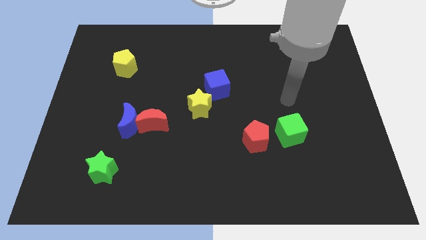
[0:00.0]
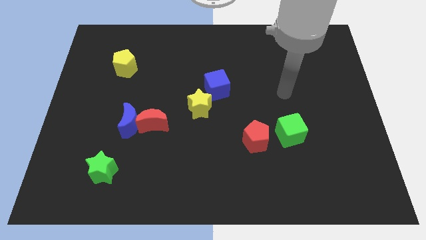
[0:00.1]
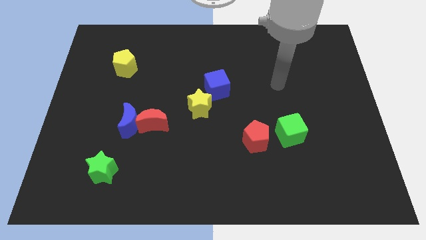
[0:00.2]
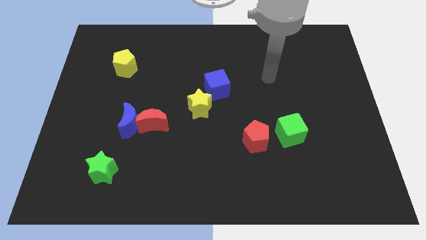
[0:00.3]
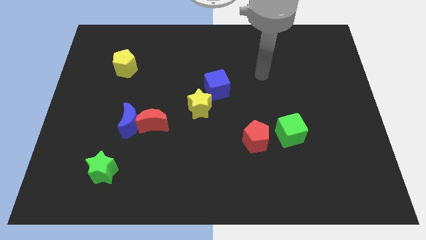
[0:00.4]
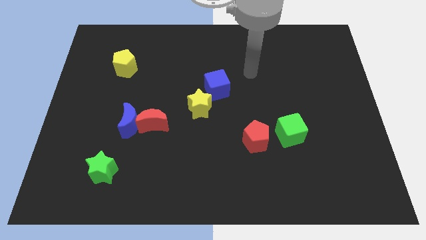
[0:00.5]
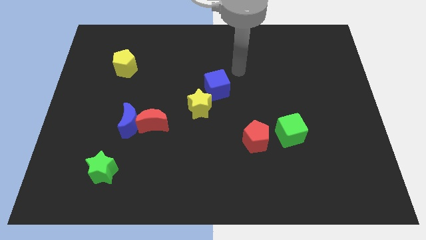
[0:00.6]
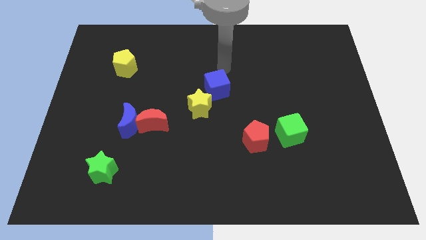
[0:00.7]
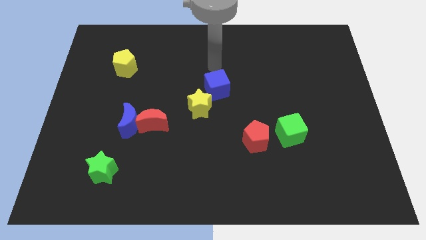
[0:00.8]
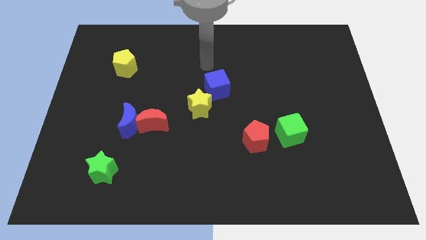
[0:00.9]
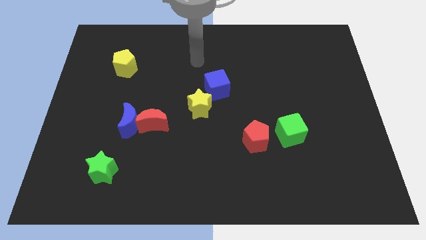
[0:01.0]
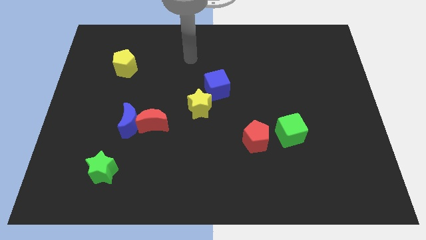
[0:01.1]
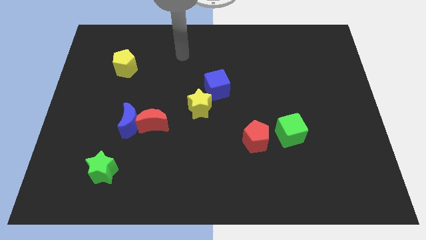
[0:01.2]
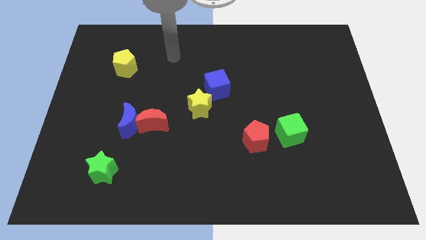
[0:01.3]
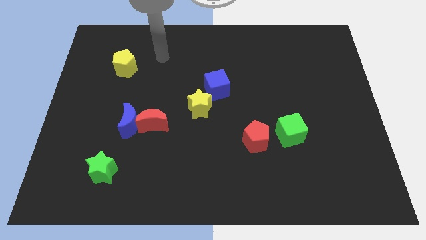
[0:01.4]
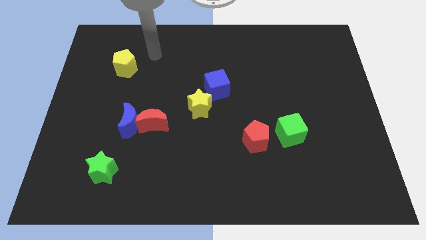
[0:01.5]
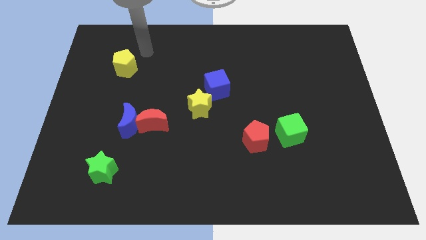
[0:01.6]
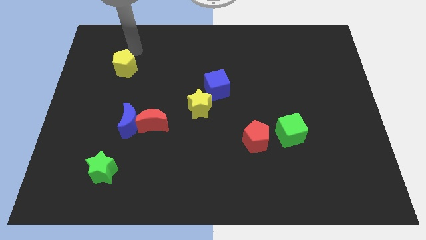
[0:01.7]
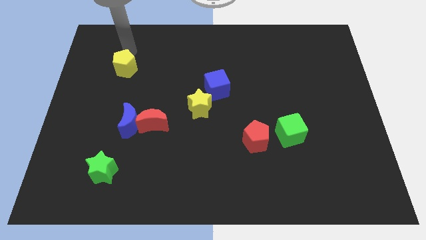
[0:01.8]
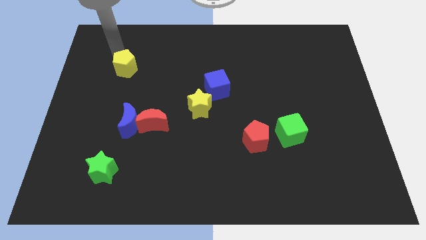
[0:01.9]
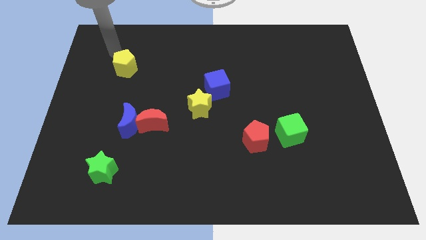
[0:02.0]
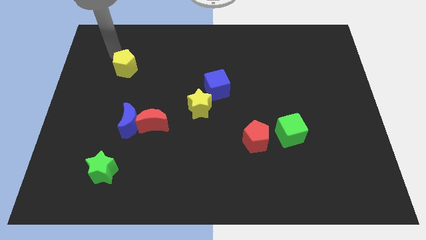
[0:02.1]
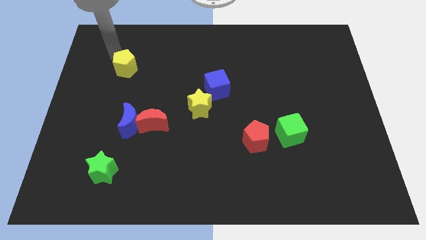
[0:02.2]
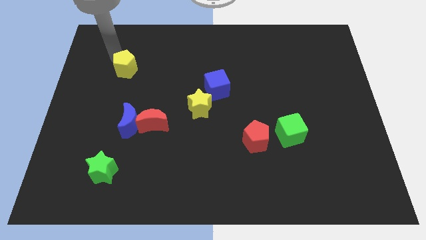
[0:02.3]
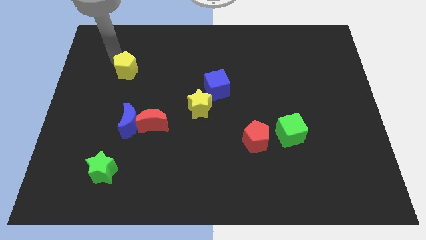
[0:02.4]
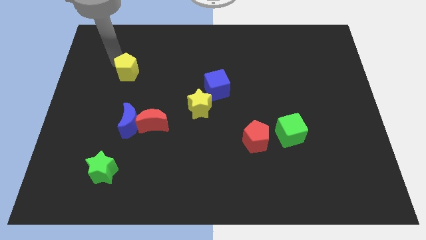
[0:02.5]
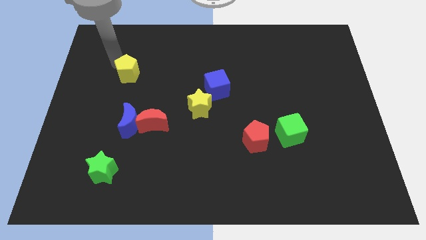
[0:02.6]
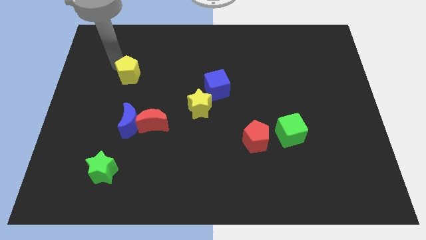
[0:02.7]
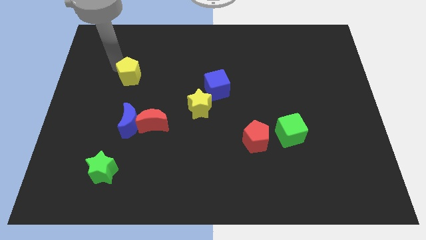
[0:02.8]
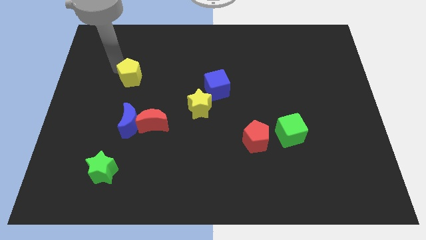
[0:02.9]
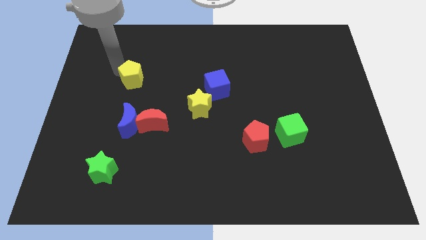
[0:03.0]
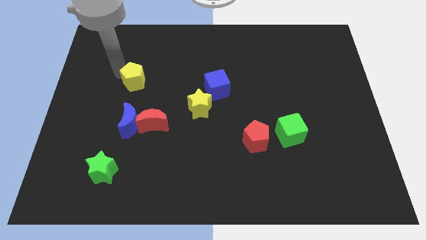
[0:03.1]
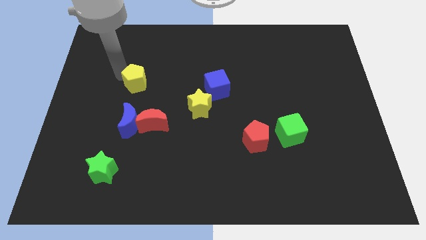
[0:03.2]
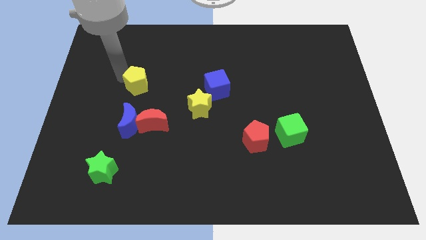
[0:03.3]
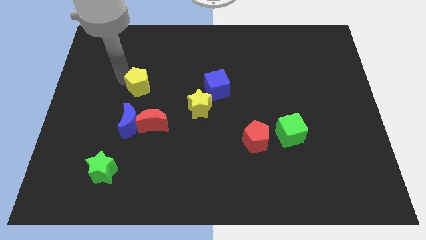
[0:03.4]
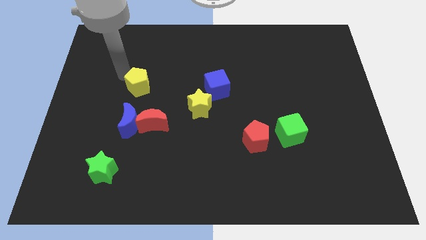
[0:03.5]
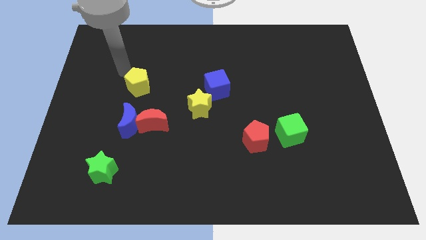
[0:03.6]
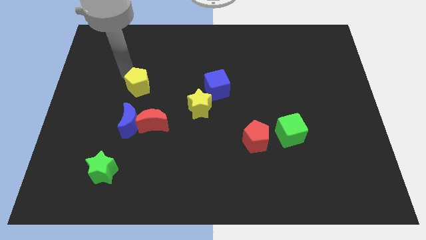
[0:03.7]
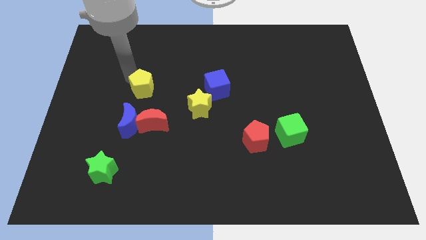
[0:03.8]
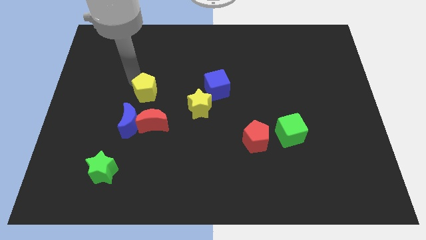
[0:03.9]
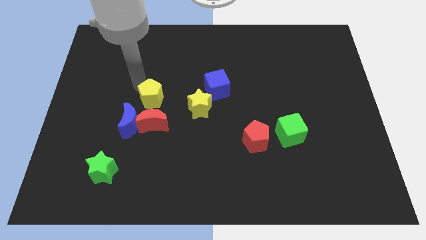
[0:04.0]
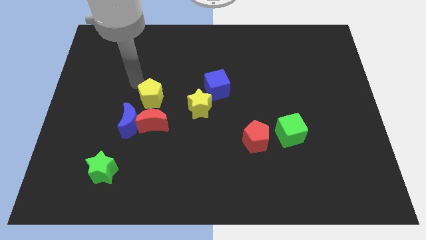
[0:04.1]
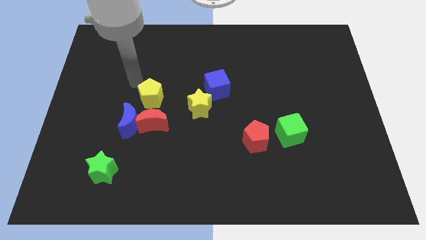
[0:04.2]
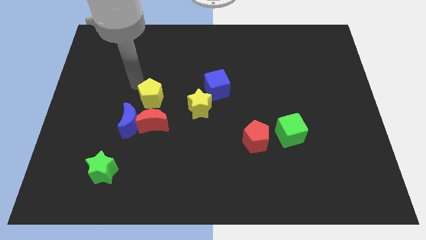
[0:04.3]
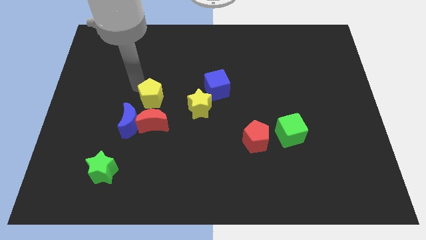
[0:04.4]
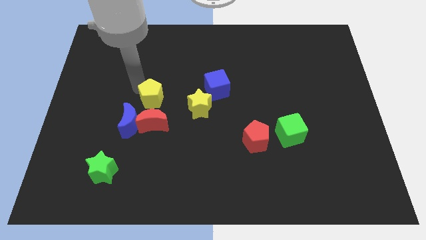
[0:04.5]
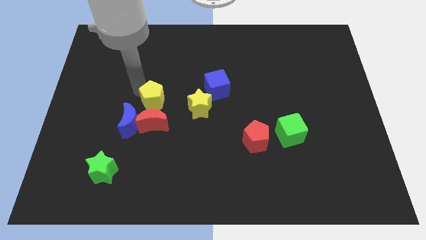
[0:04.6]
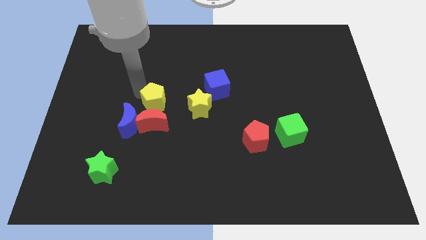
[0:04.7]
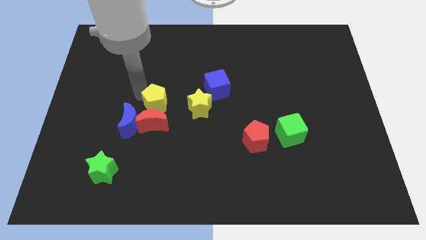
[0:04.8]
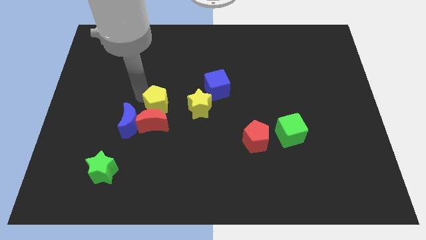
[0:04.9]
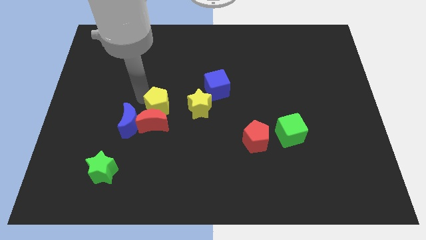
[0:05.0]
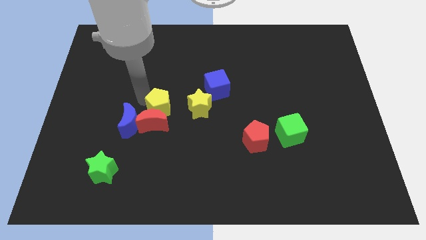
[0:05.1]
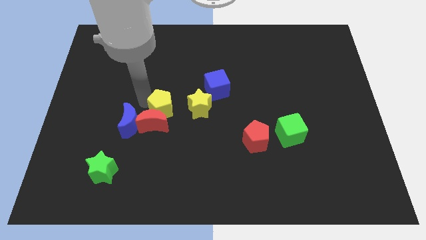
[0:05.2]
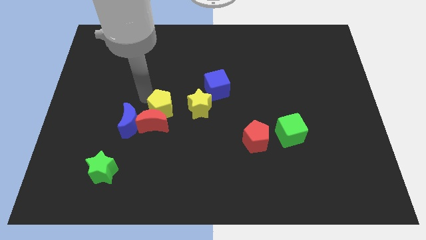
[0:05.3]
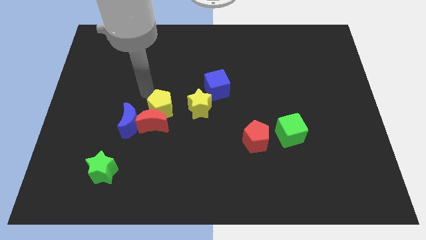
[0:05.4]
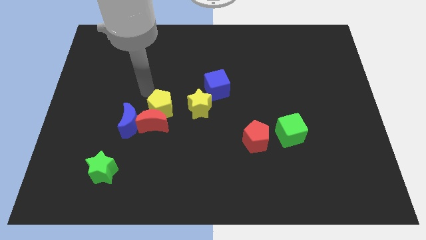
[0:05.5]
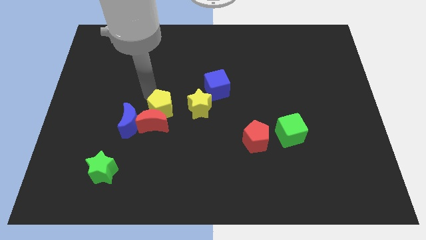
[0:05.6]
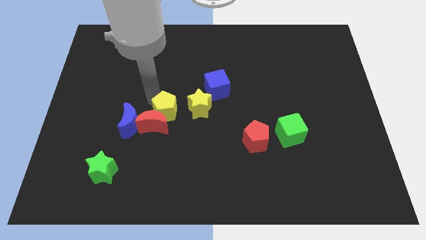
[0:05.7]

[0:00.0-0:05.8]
push the yellow pentagon to the bottom left side of the yellow star

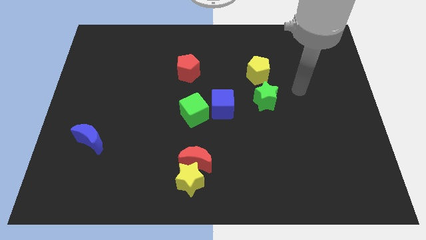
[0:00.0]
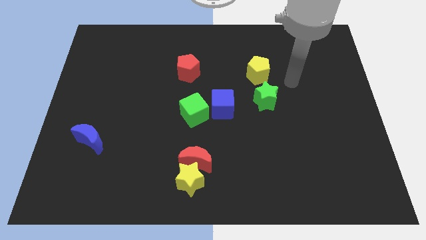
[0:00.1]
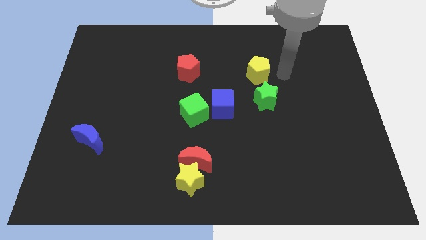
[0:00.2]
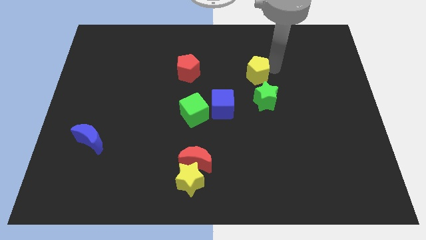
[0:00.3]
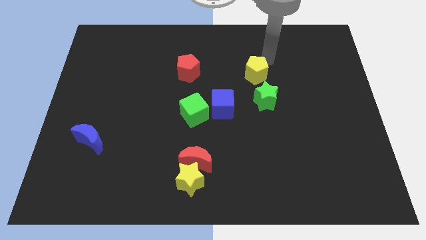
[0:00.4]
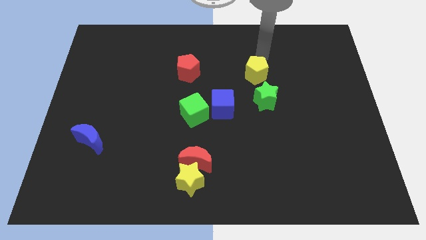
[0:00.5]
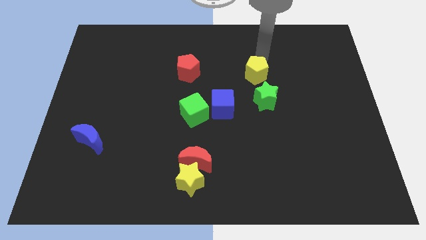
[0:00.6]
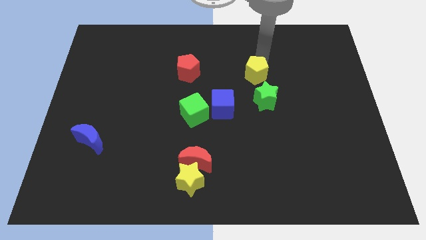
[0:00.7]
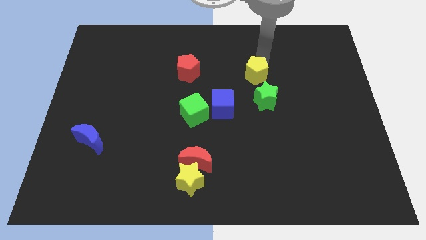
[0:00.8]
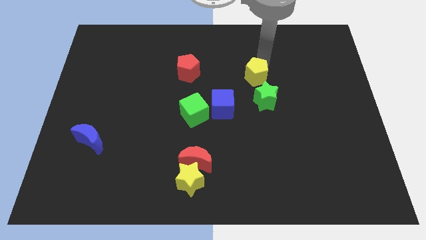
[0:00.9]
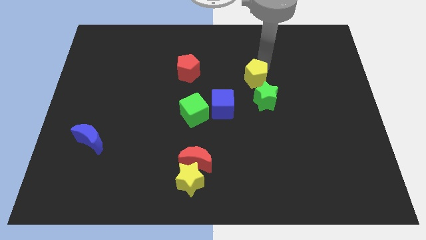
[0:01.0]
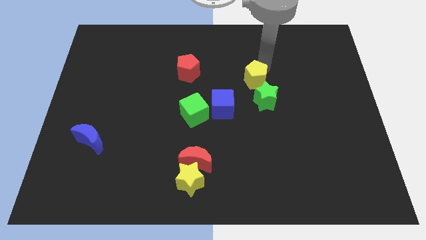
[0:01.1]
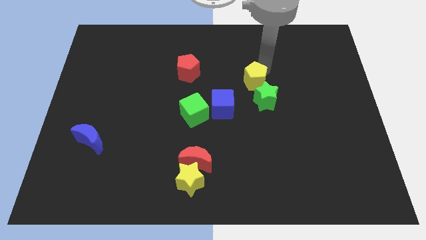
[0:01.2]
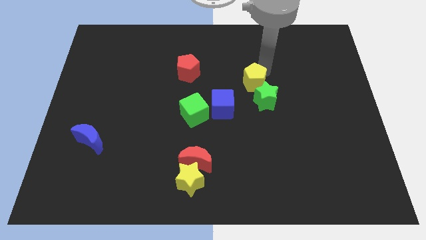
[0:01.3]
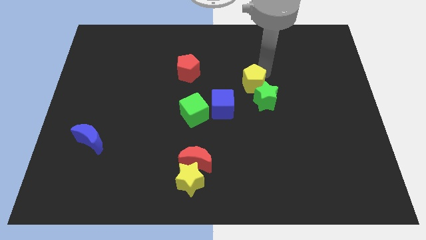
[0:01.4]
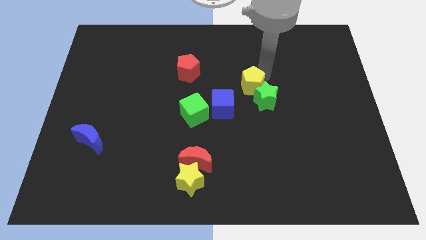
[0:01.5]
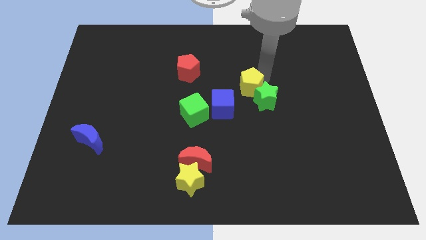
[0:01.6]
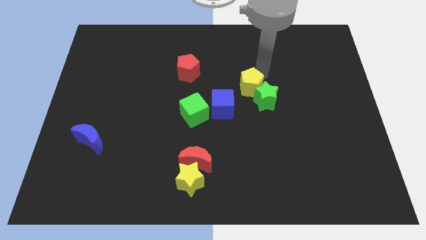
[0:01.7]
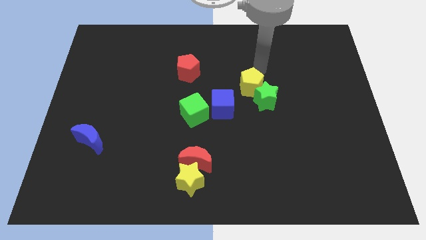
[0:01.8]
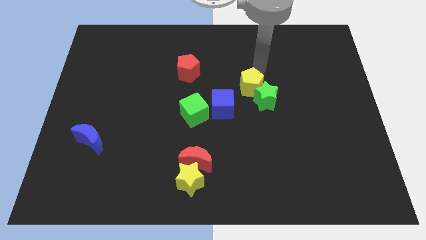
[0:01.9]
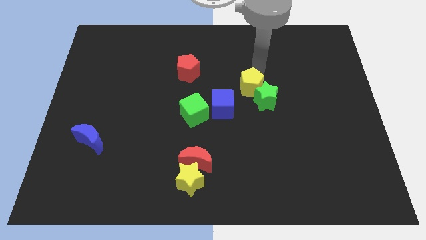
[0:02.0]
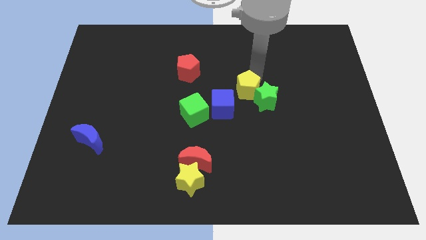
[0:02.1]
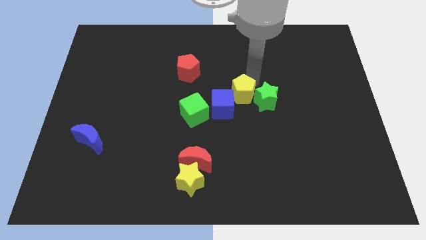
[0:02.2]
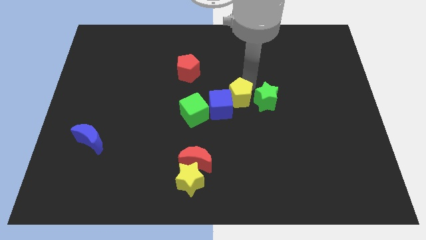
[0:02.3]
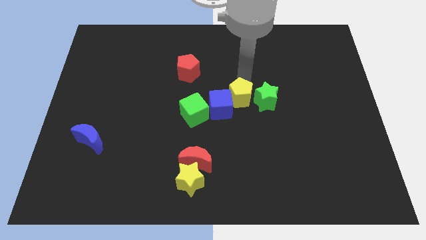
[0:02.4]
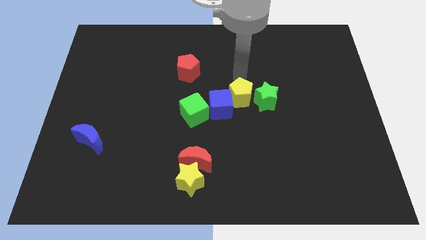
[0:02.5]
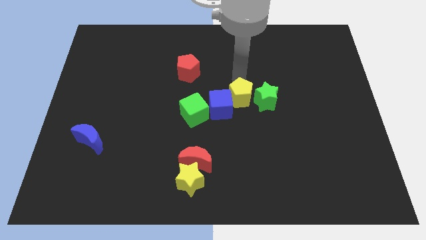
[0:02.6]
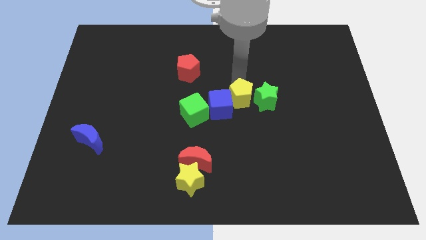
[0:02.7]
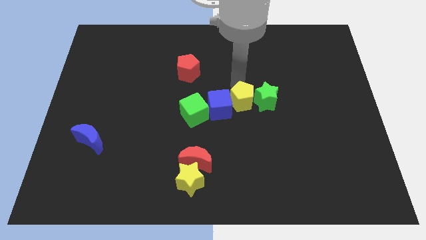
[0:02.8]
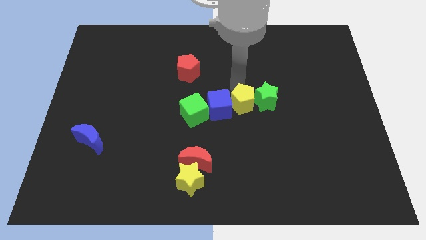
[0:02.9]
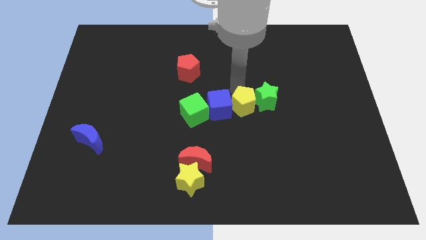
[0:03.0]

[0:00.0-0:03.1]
push the yellow pentagon to the bottom right of the blue cube
